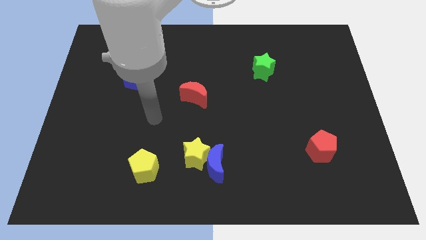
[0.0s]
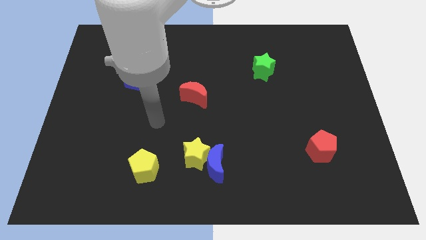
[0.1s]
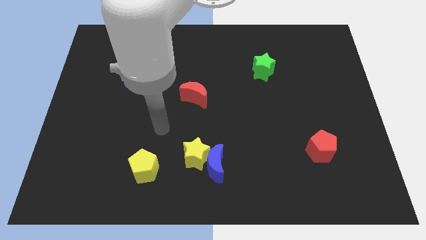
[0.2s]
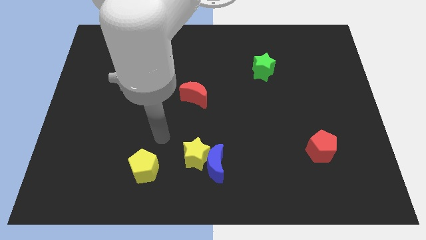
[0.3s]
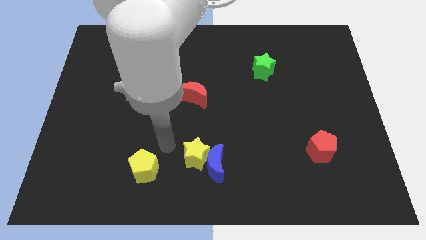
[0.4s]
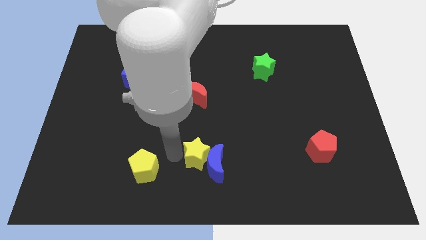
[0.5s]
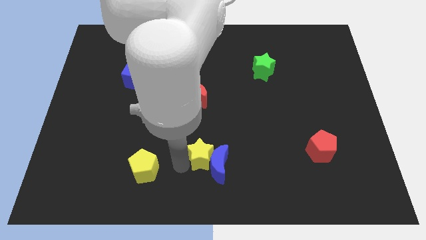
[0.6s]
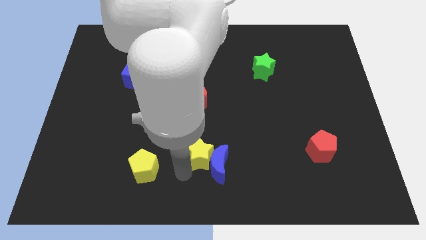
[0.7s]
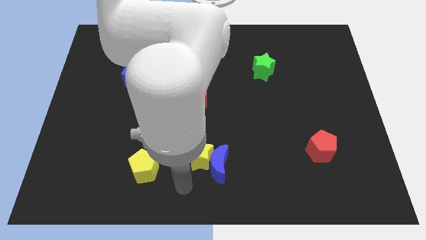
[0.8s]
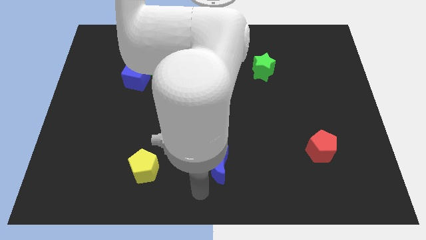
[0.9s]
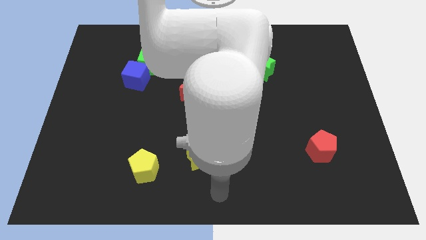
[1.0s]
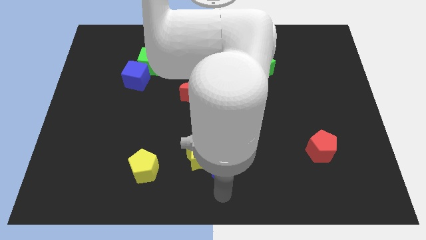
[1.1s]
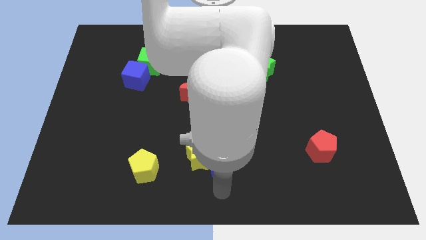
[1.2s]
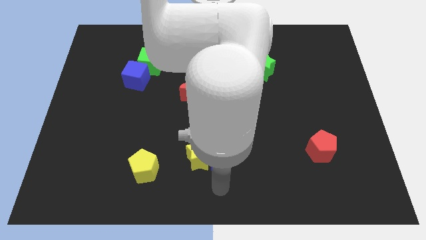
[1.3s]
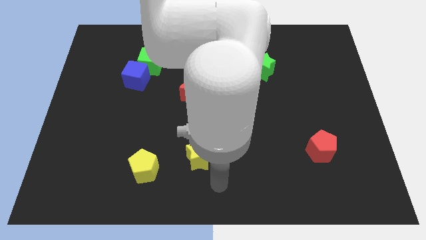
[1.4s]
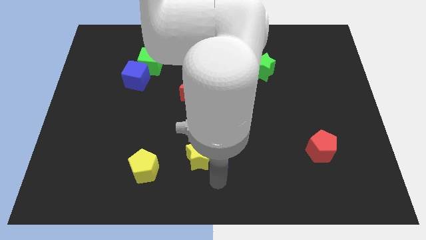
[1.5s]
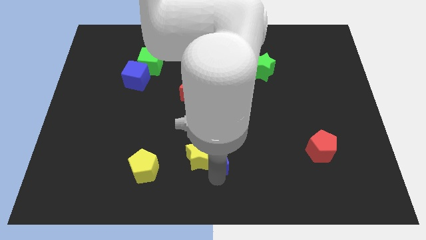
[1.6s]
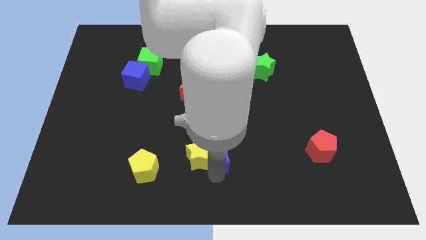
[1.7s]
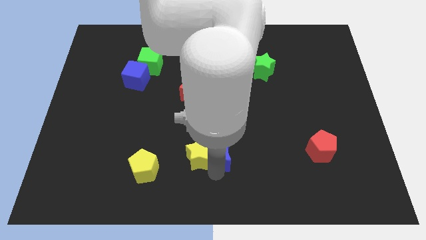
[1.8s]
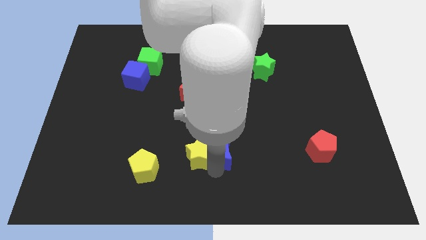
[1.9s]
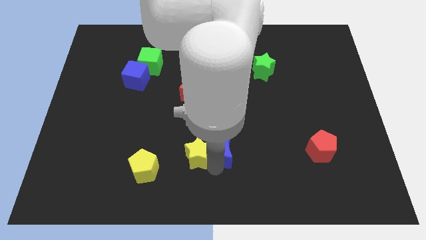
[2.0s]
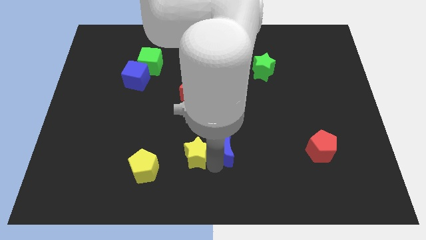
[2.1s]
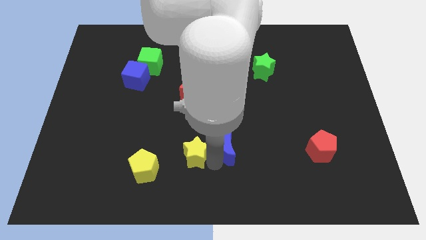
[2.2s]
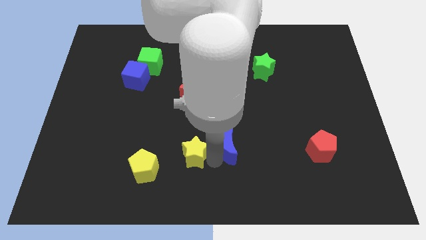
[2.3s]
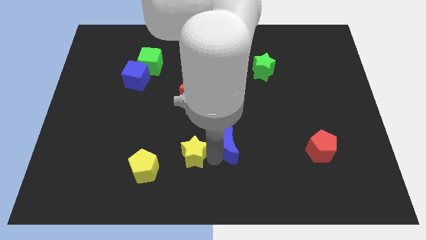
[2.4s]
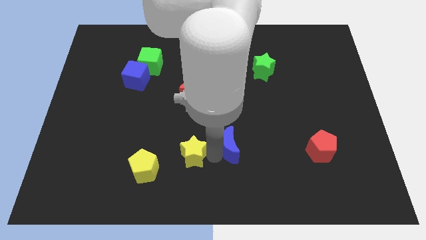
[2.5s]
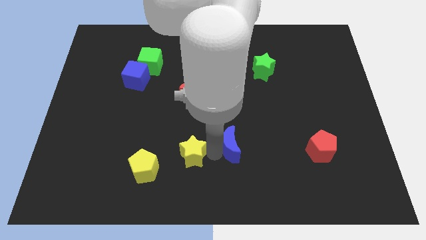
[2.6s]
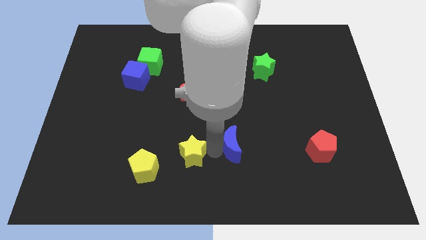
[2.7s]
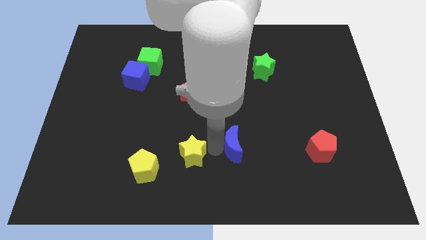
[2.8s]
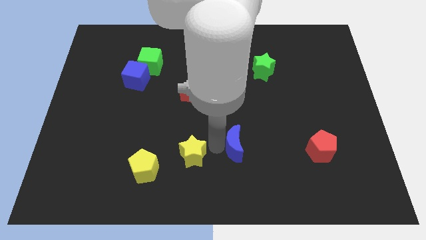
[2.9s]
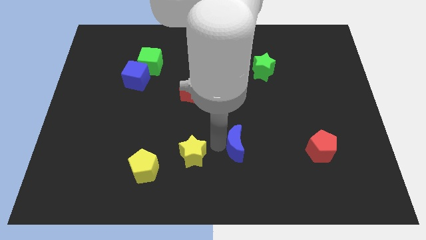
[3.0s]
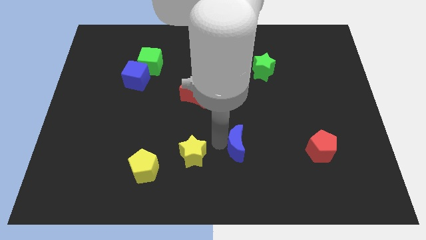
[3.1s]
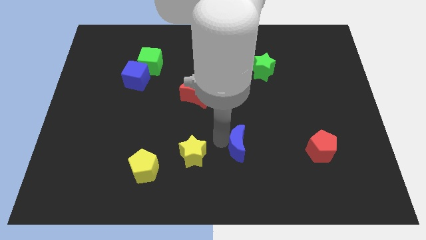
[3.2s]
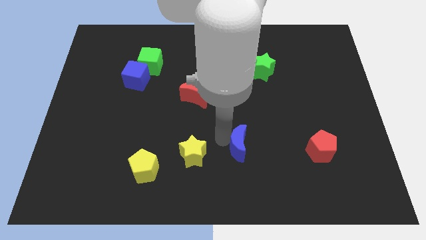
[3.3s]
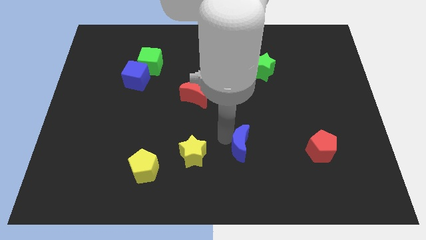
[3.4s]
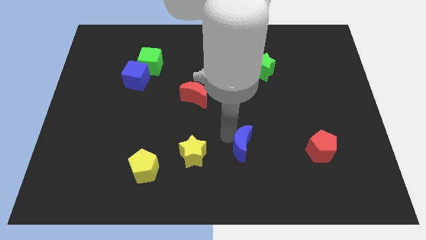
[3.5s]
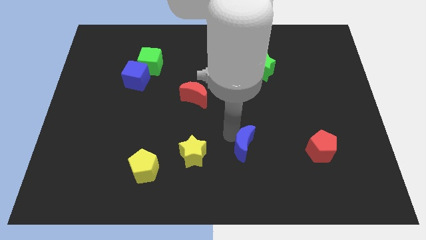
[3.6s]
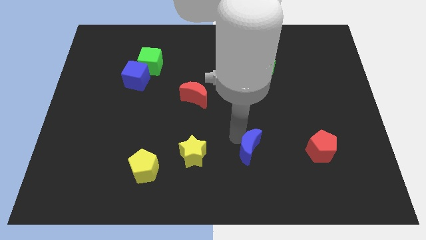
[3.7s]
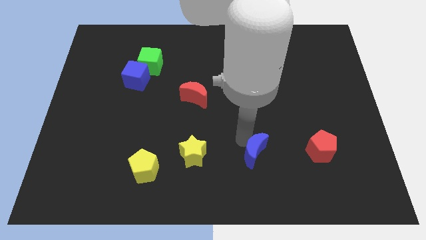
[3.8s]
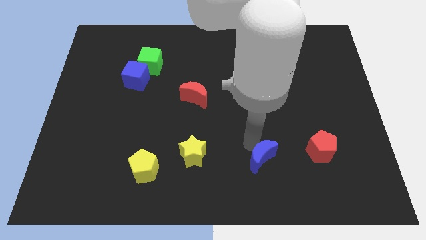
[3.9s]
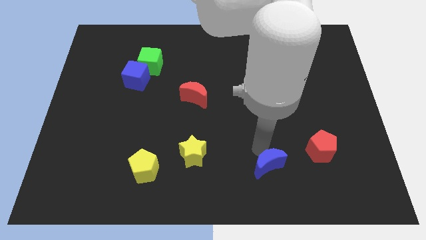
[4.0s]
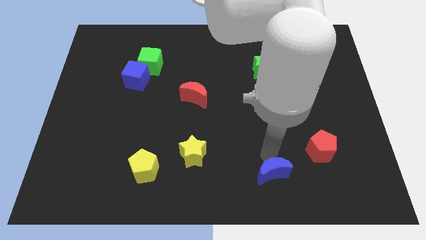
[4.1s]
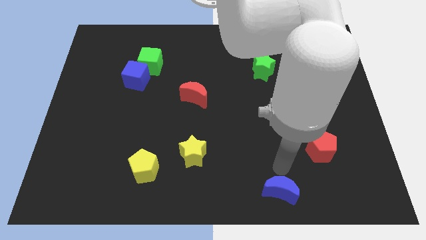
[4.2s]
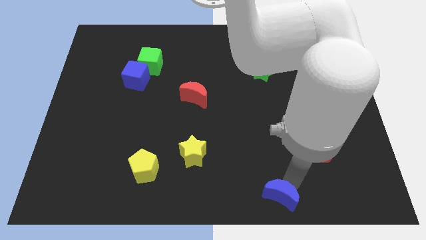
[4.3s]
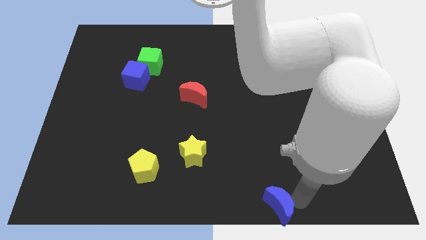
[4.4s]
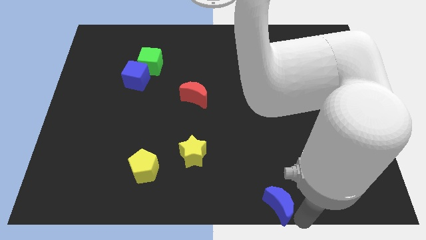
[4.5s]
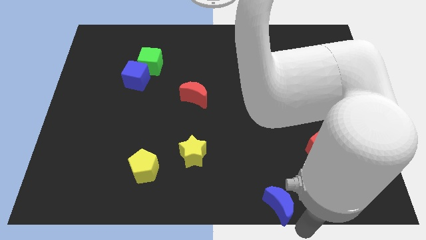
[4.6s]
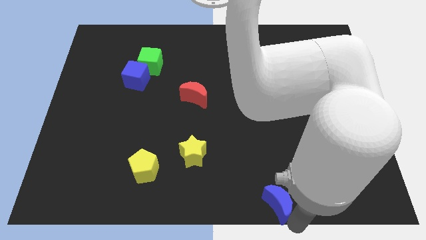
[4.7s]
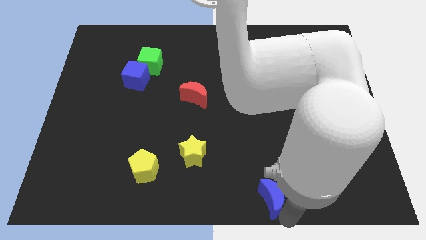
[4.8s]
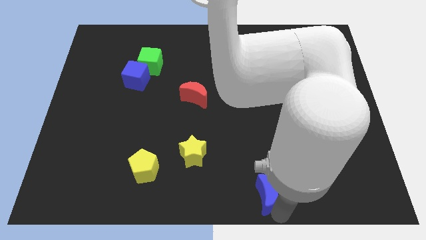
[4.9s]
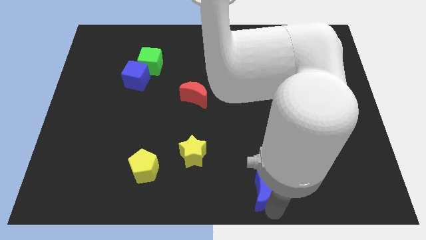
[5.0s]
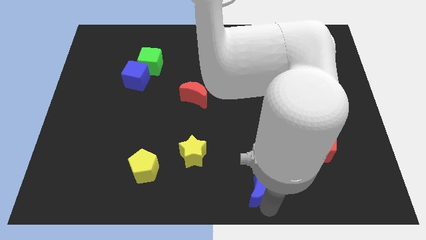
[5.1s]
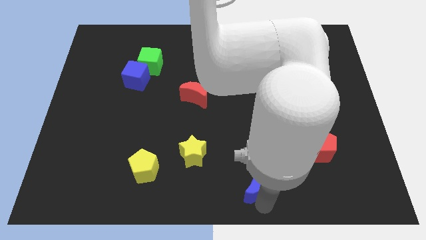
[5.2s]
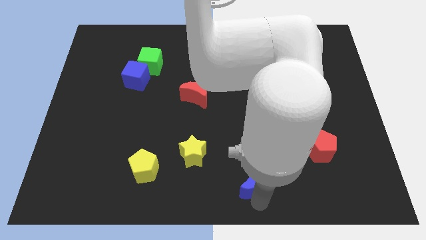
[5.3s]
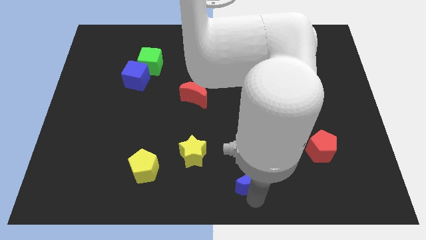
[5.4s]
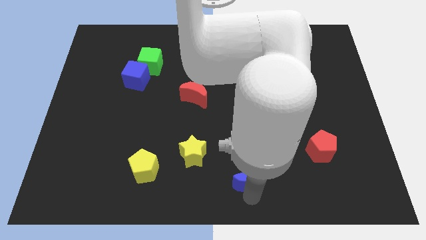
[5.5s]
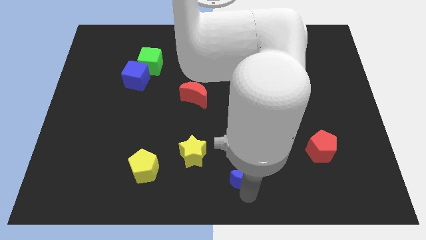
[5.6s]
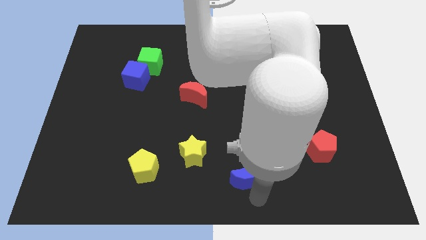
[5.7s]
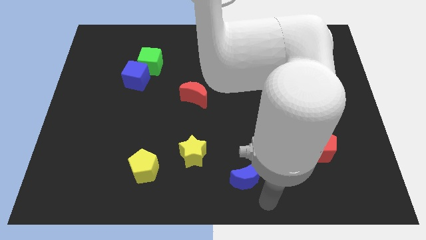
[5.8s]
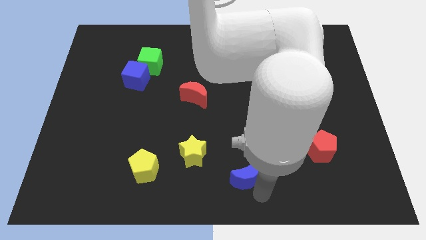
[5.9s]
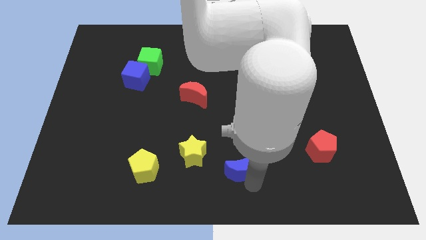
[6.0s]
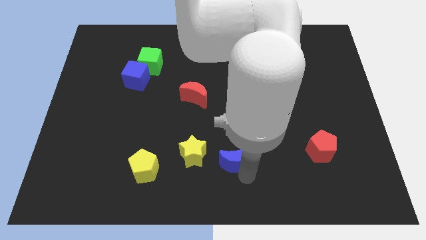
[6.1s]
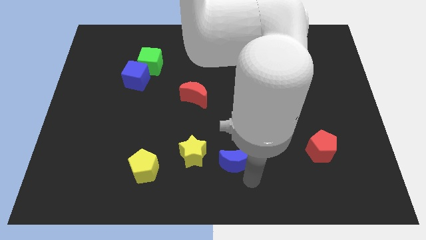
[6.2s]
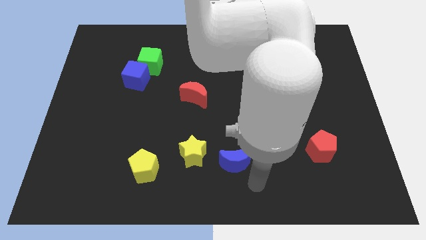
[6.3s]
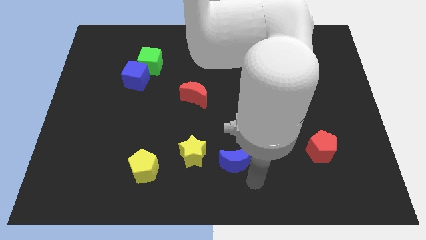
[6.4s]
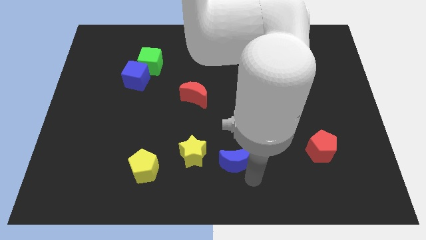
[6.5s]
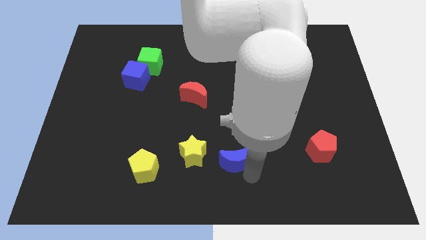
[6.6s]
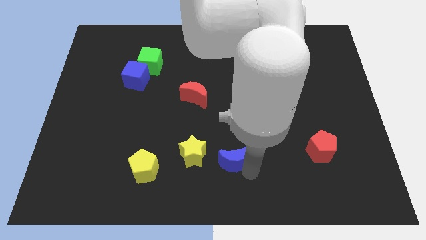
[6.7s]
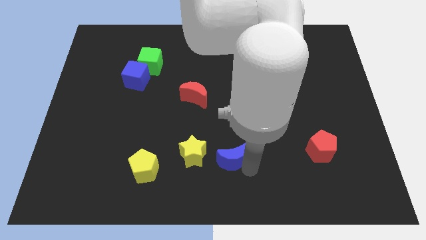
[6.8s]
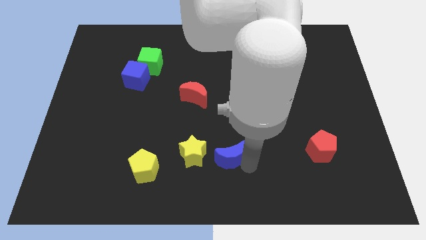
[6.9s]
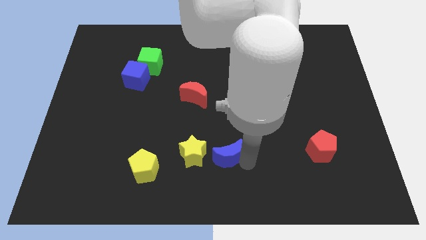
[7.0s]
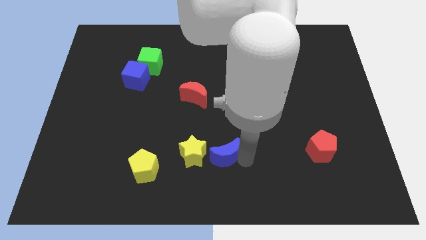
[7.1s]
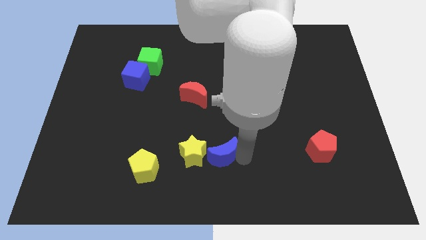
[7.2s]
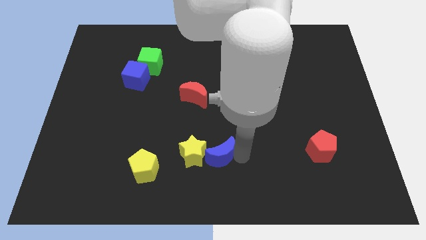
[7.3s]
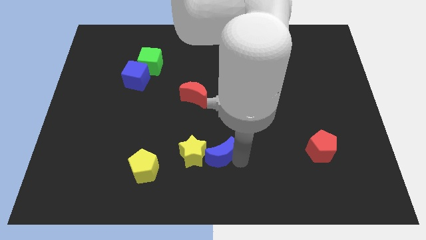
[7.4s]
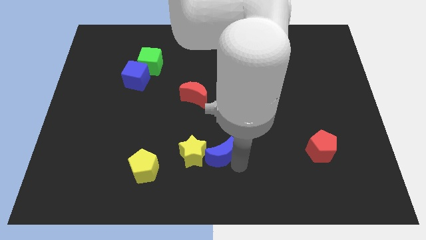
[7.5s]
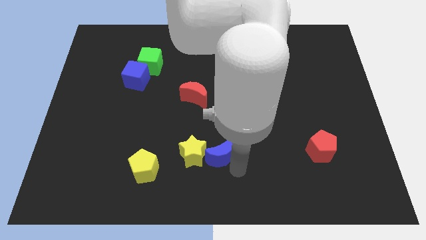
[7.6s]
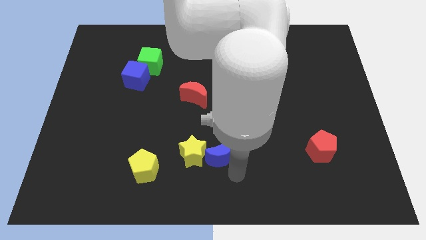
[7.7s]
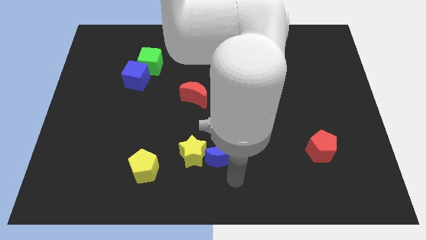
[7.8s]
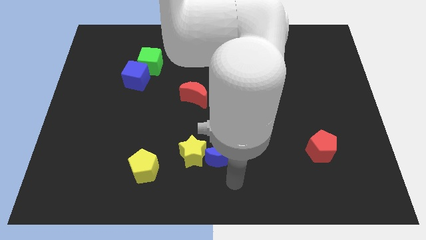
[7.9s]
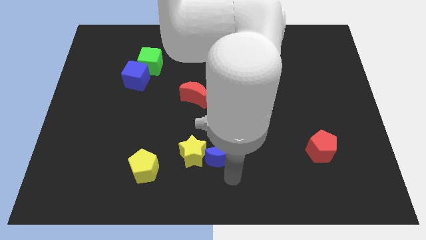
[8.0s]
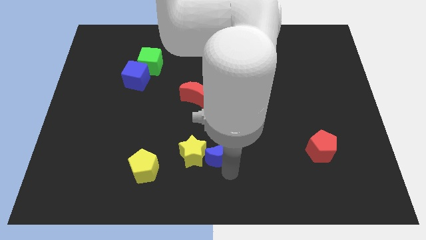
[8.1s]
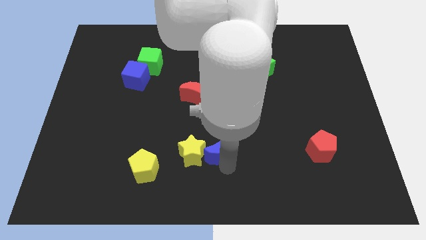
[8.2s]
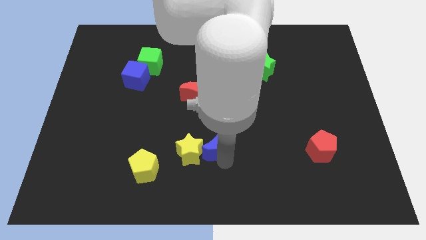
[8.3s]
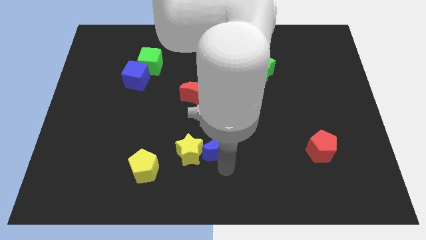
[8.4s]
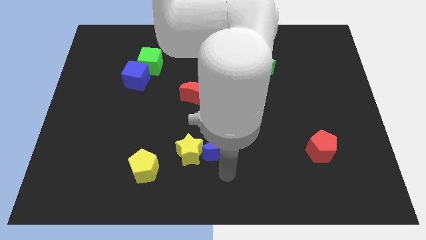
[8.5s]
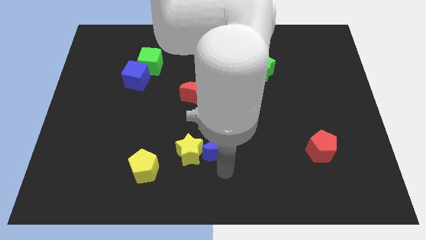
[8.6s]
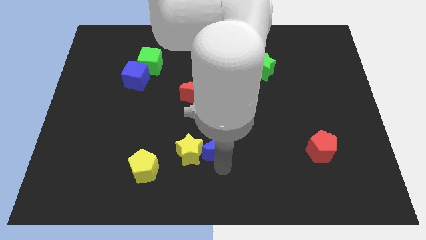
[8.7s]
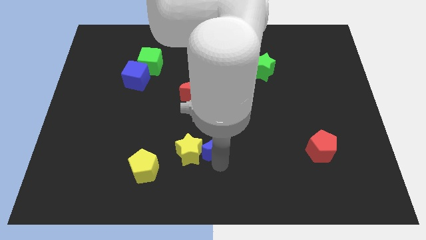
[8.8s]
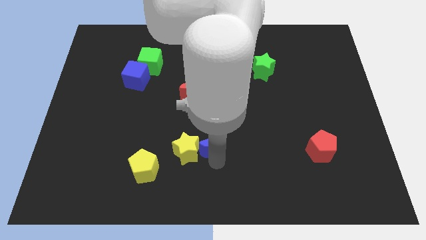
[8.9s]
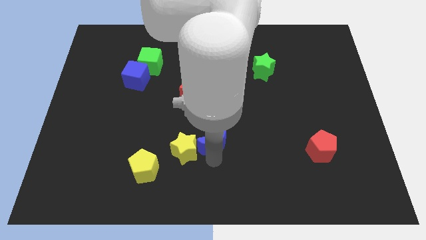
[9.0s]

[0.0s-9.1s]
put the blue moon to the middle
